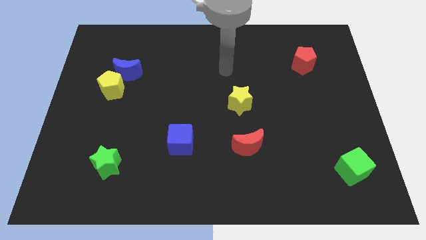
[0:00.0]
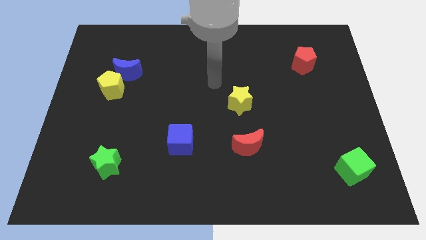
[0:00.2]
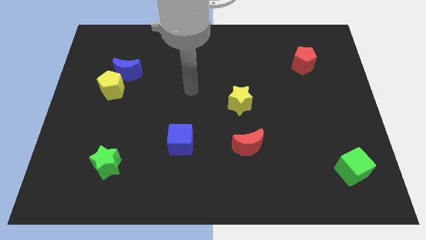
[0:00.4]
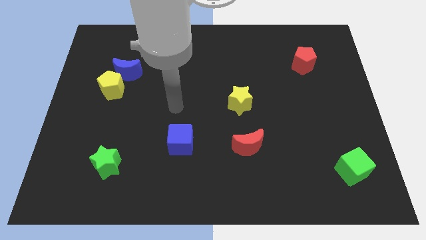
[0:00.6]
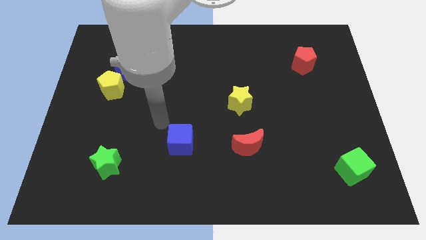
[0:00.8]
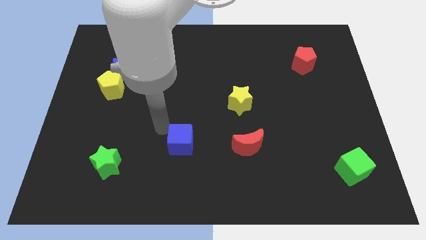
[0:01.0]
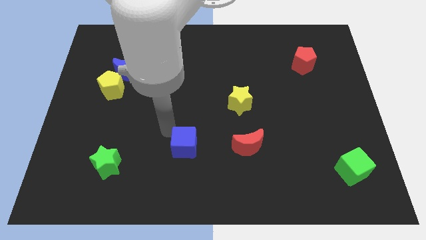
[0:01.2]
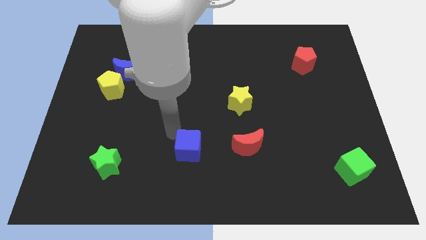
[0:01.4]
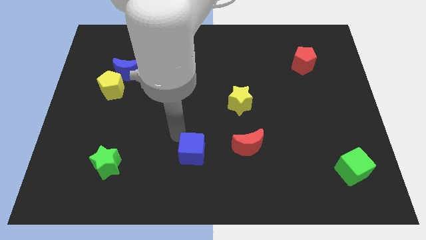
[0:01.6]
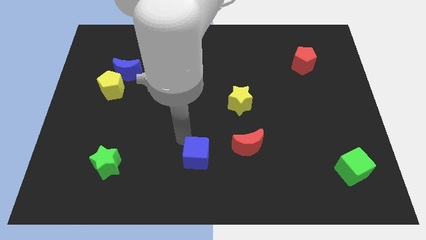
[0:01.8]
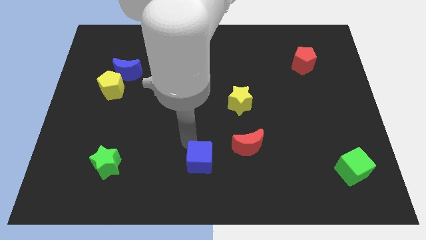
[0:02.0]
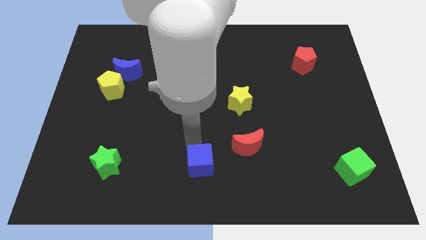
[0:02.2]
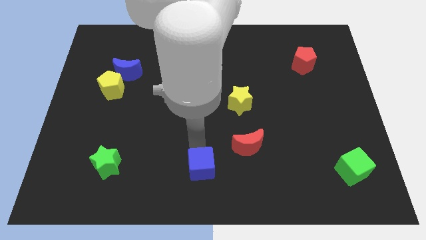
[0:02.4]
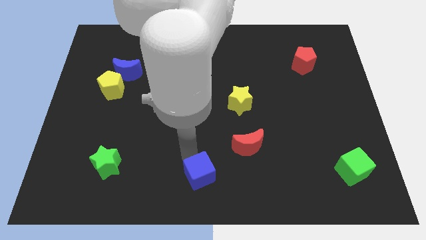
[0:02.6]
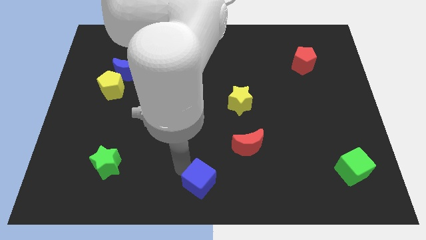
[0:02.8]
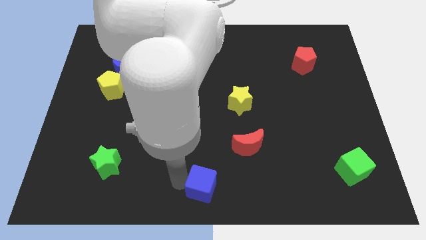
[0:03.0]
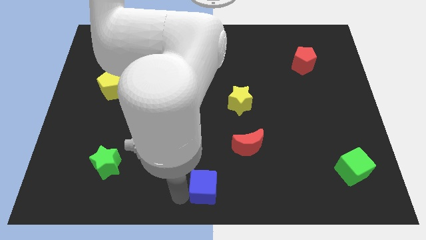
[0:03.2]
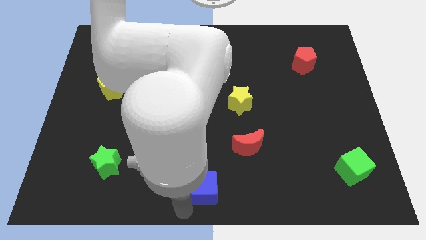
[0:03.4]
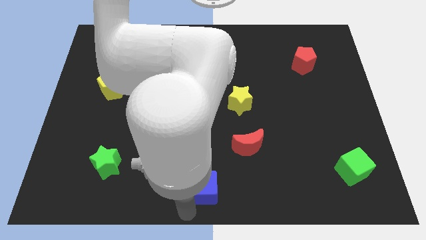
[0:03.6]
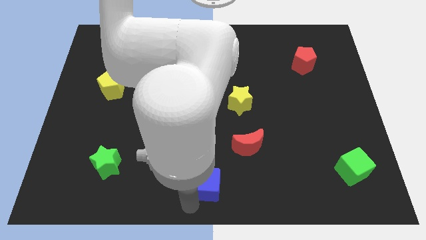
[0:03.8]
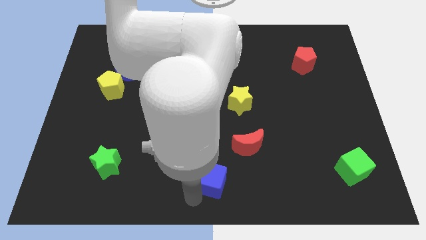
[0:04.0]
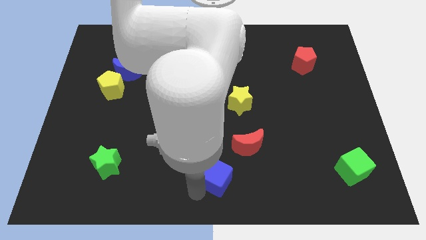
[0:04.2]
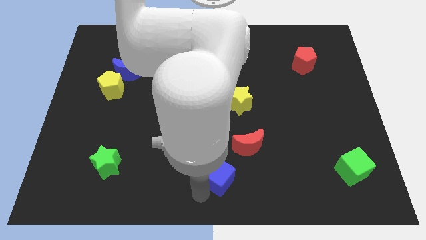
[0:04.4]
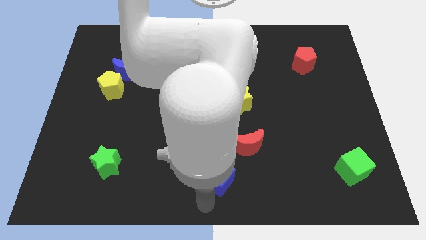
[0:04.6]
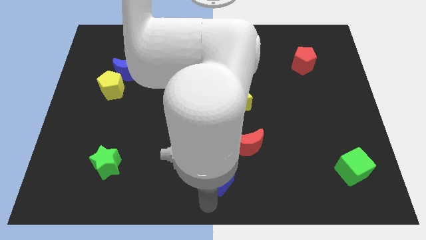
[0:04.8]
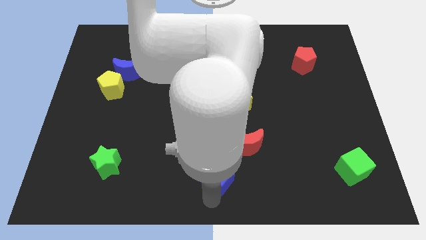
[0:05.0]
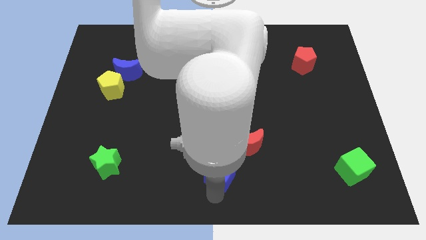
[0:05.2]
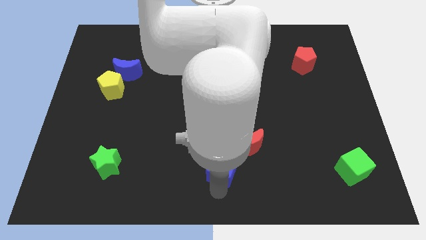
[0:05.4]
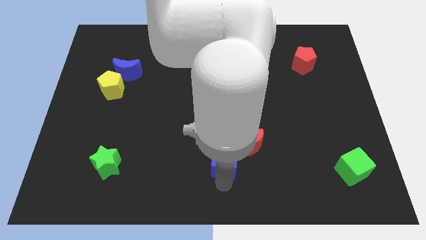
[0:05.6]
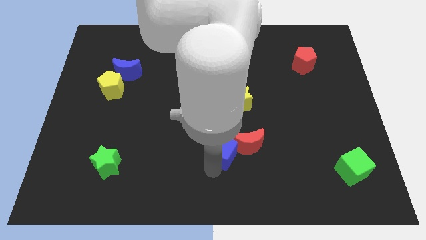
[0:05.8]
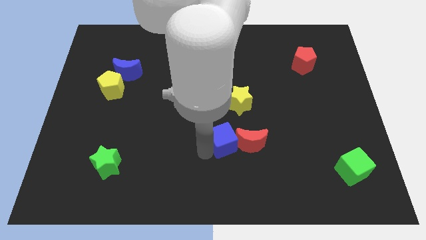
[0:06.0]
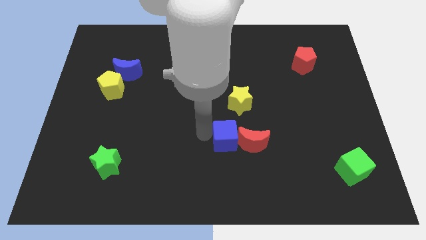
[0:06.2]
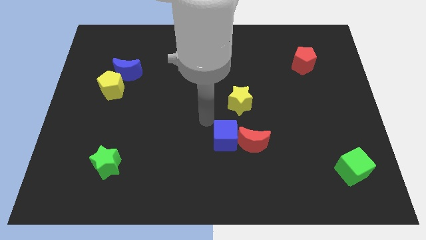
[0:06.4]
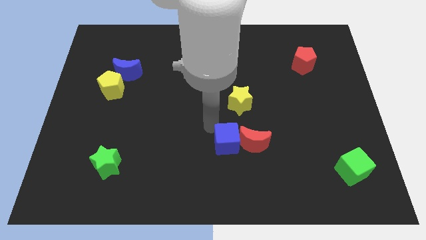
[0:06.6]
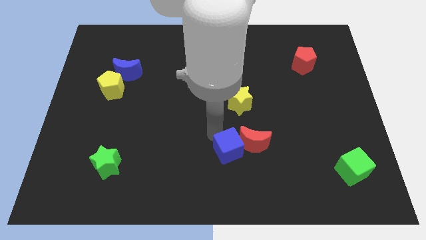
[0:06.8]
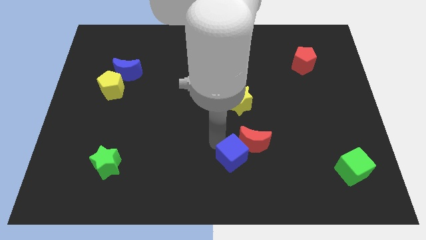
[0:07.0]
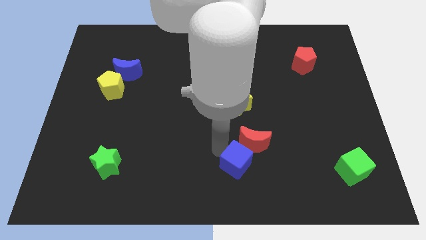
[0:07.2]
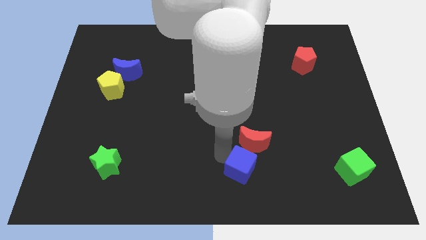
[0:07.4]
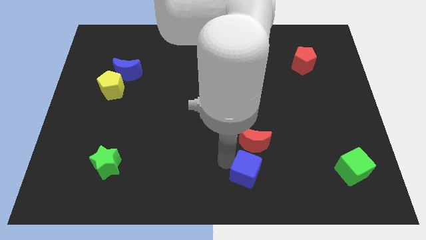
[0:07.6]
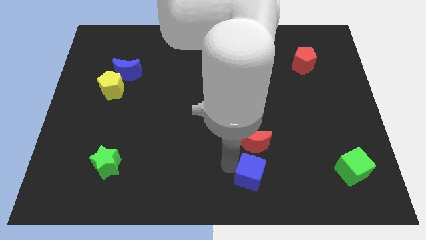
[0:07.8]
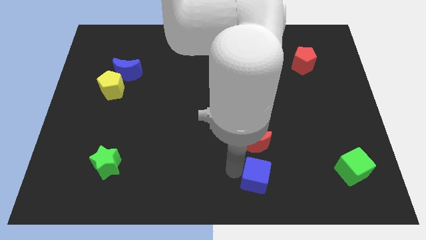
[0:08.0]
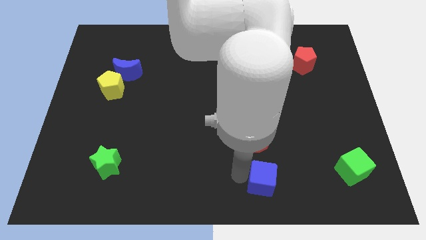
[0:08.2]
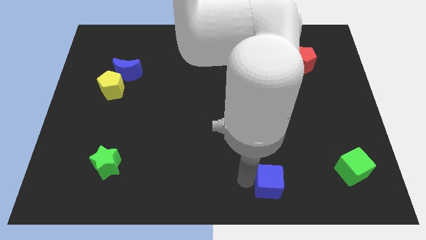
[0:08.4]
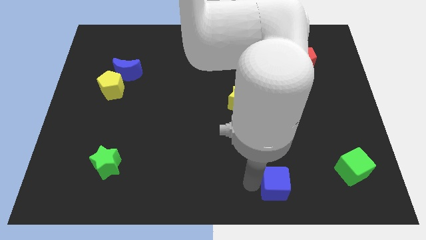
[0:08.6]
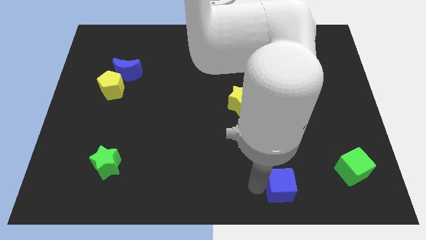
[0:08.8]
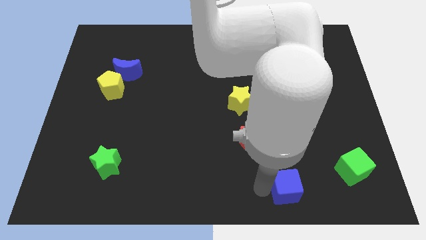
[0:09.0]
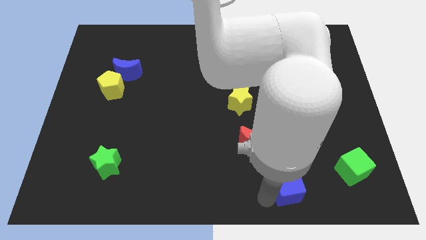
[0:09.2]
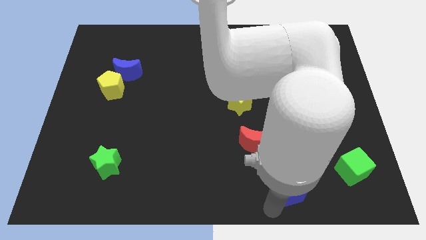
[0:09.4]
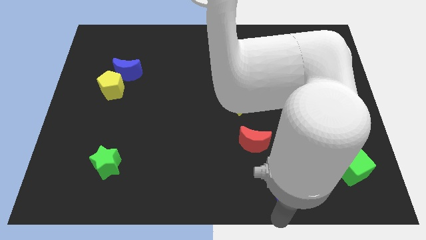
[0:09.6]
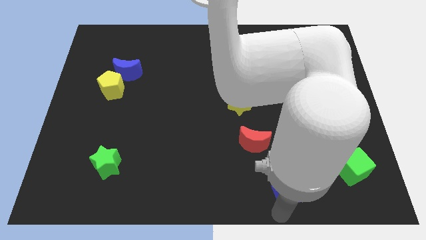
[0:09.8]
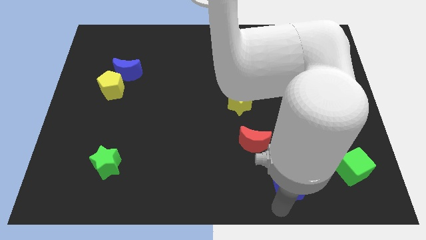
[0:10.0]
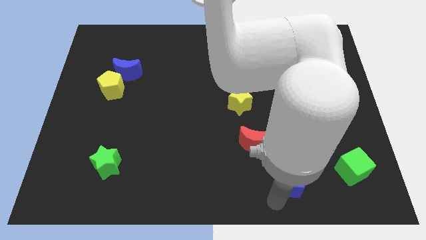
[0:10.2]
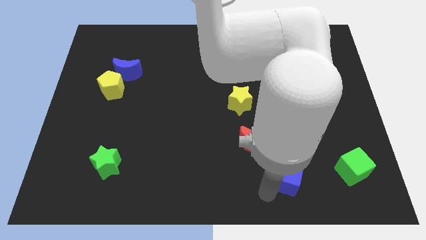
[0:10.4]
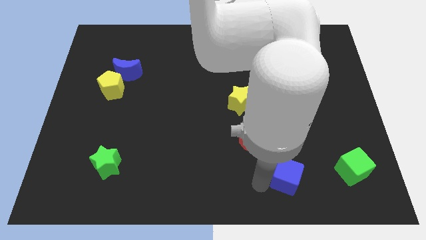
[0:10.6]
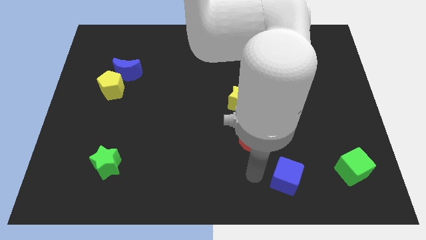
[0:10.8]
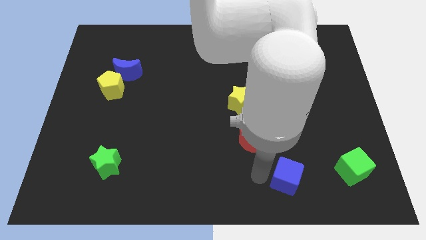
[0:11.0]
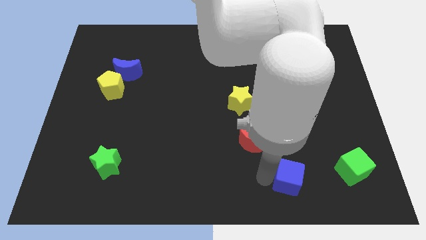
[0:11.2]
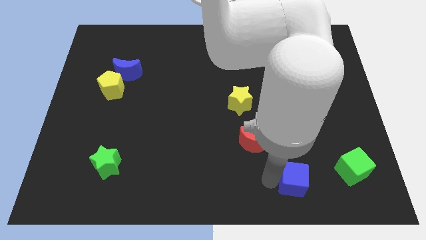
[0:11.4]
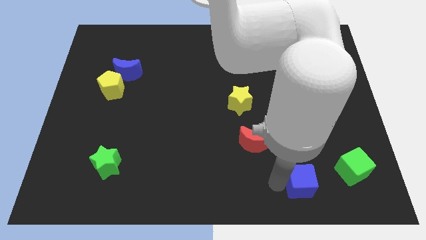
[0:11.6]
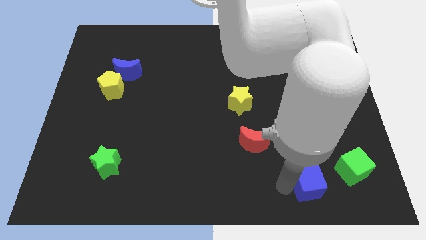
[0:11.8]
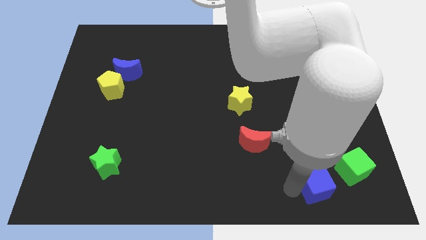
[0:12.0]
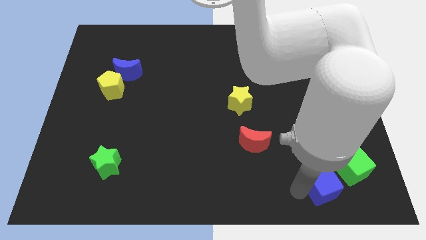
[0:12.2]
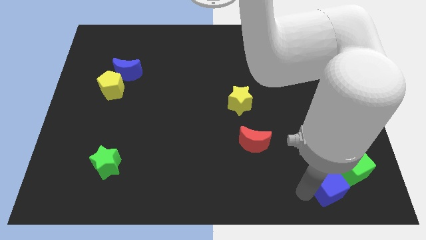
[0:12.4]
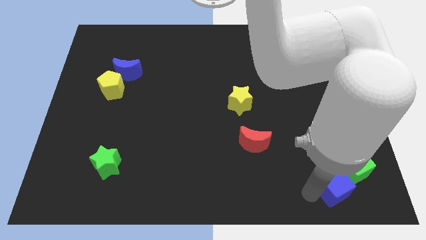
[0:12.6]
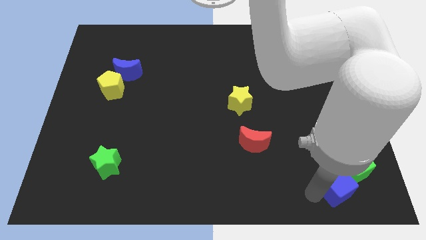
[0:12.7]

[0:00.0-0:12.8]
move the blue cube to the green cube
